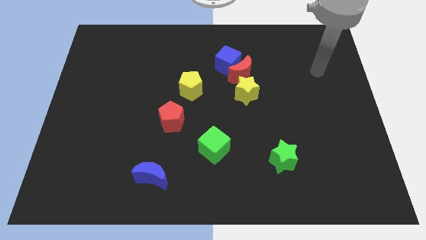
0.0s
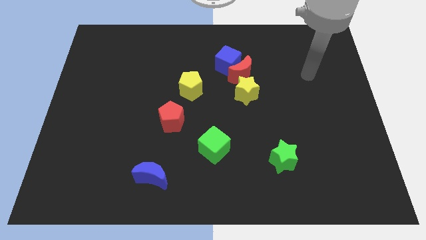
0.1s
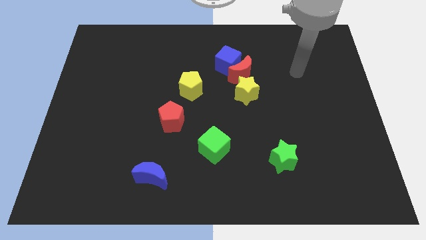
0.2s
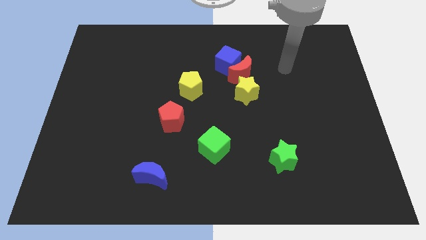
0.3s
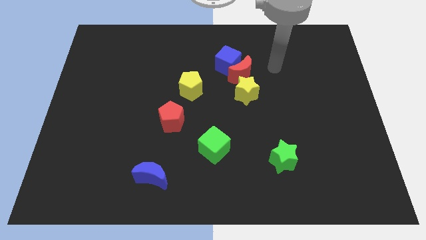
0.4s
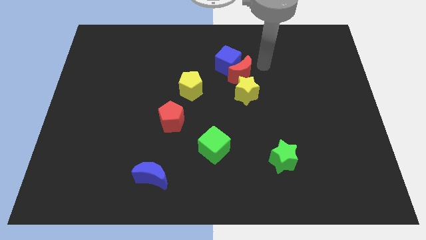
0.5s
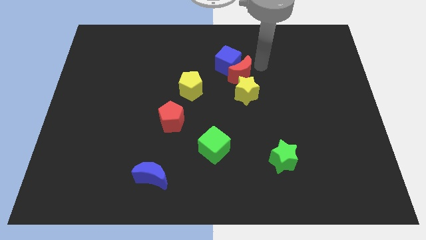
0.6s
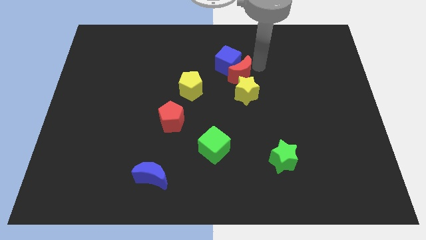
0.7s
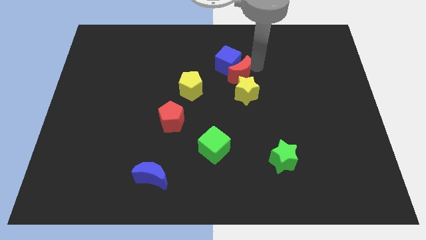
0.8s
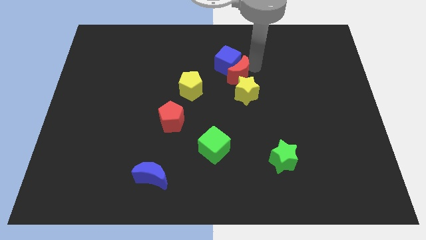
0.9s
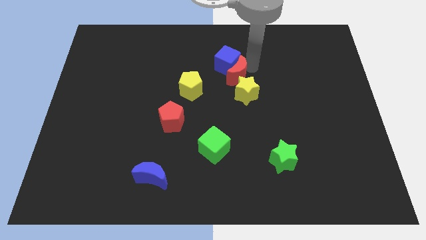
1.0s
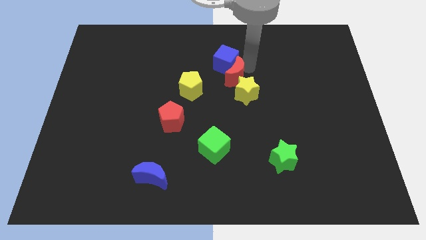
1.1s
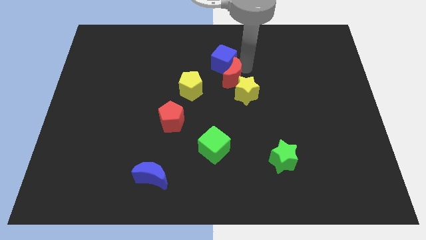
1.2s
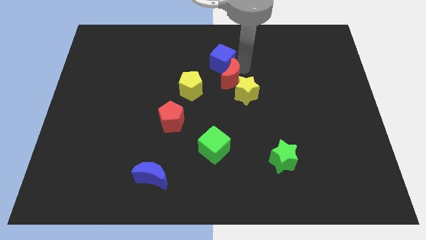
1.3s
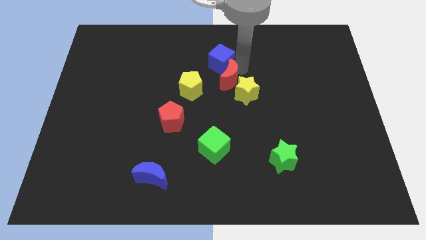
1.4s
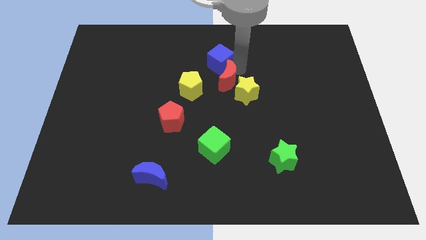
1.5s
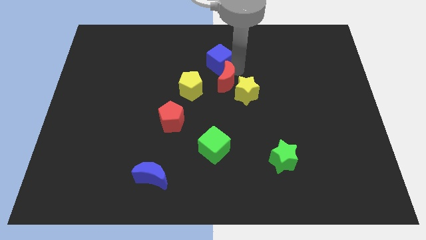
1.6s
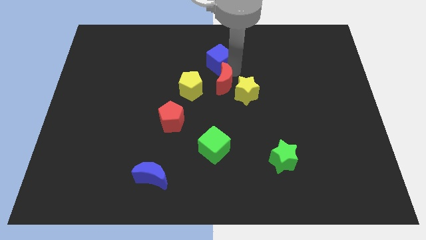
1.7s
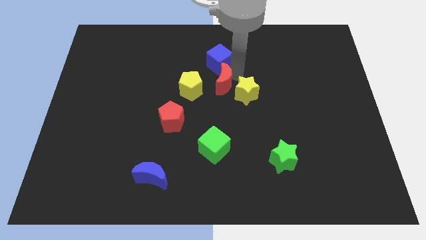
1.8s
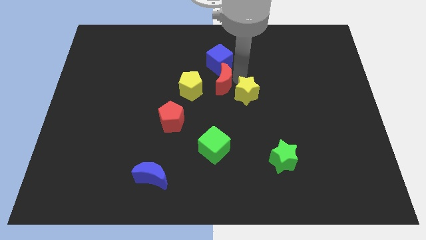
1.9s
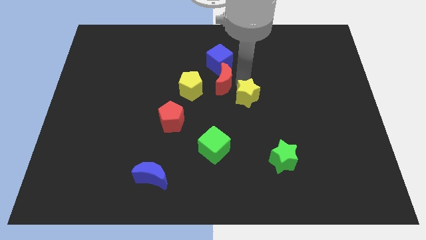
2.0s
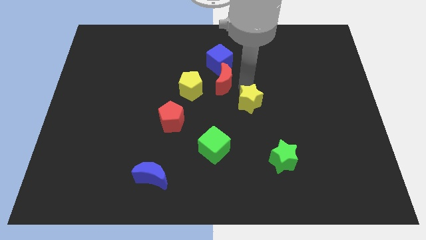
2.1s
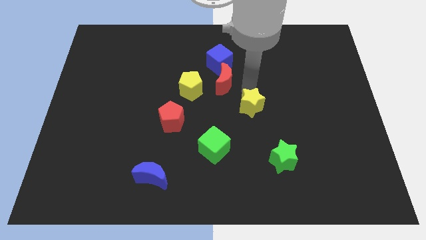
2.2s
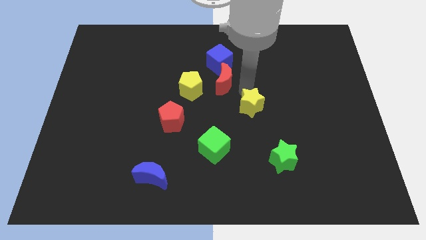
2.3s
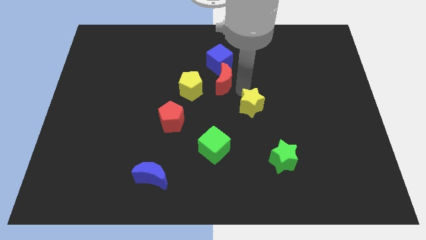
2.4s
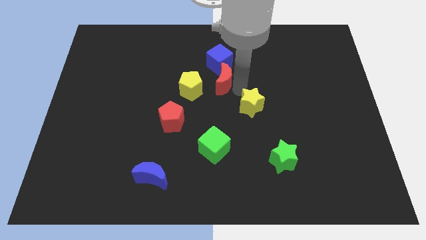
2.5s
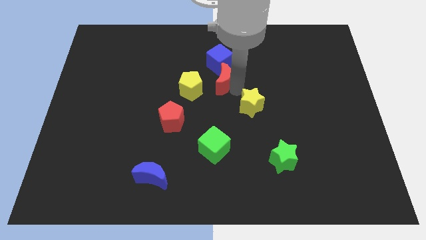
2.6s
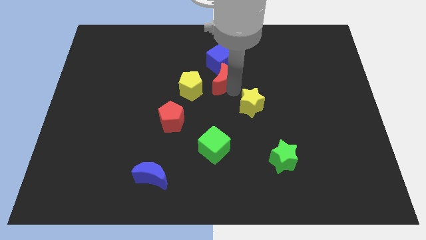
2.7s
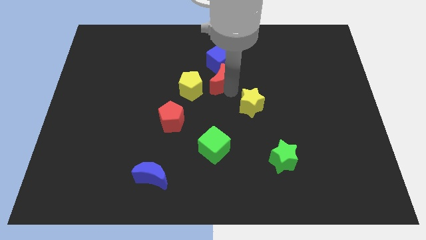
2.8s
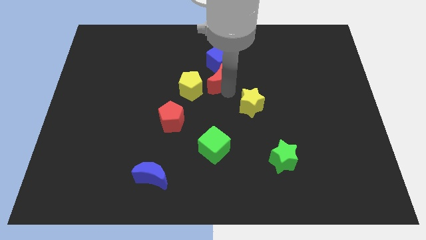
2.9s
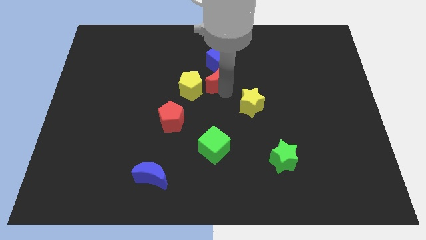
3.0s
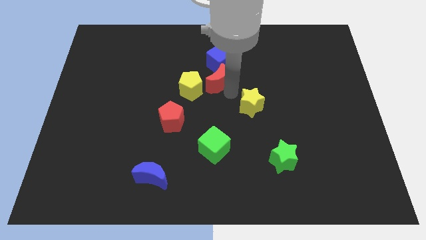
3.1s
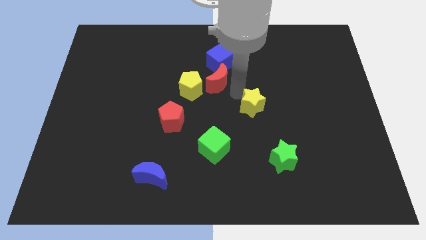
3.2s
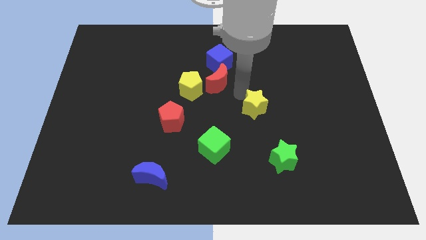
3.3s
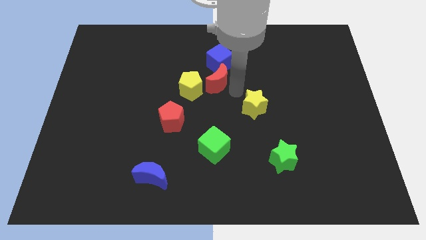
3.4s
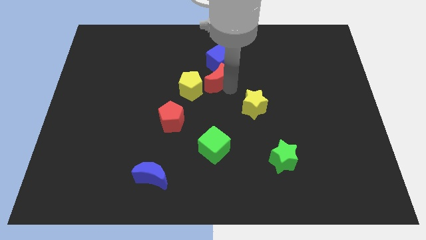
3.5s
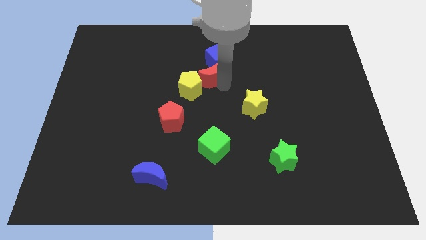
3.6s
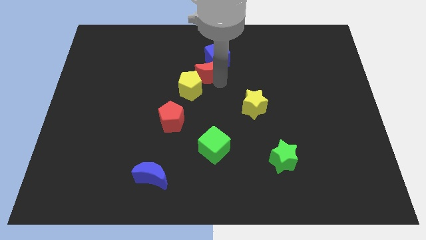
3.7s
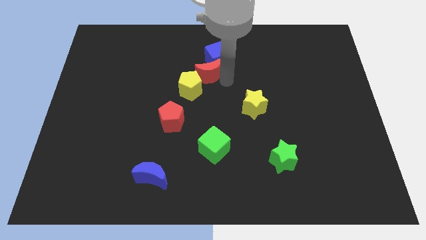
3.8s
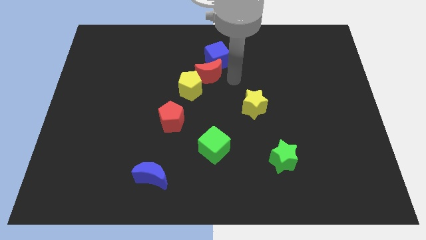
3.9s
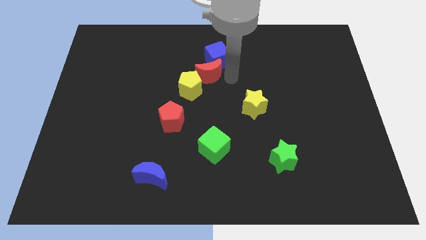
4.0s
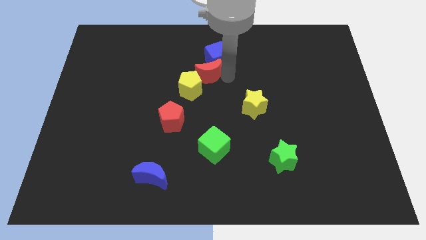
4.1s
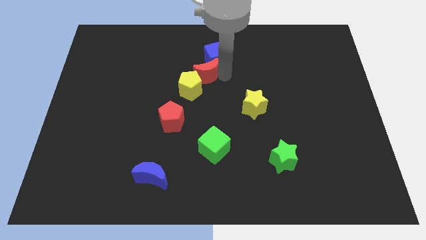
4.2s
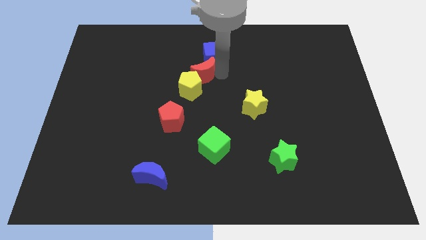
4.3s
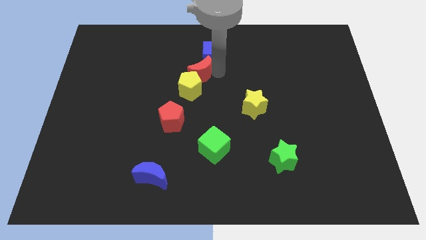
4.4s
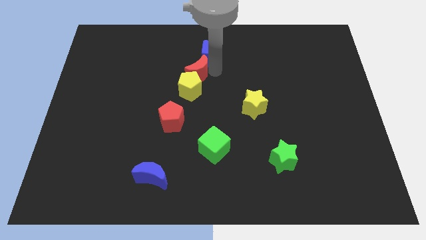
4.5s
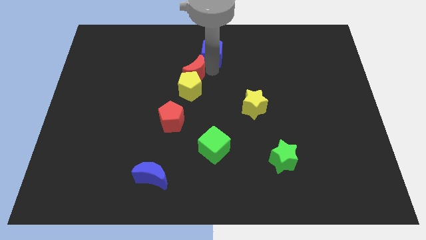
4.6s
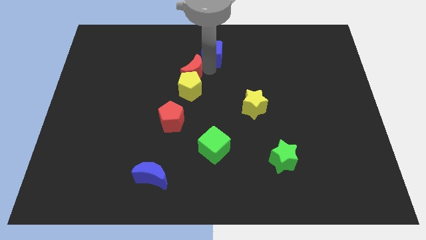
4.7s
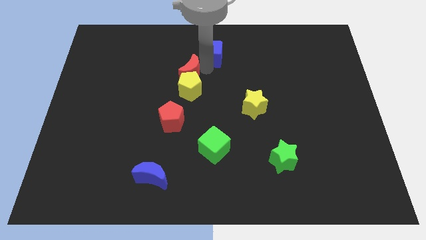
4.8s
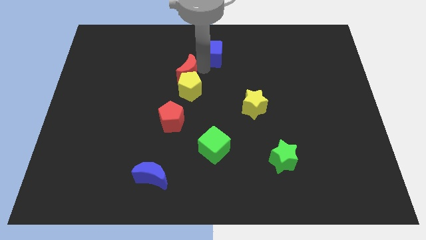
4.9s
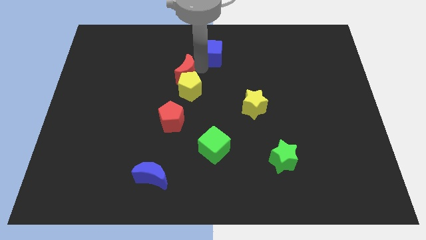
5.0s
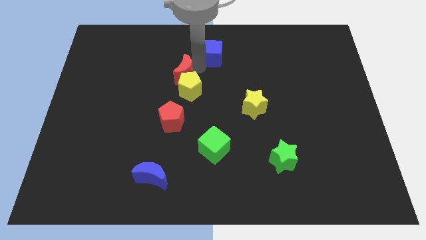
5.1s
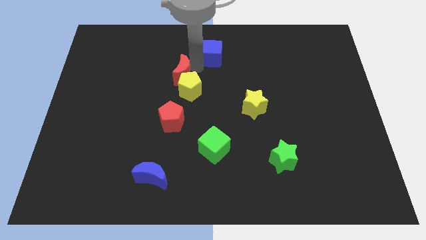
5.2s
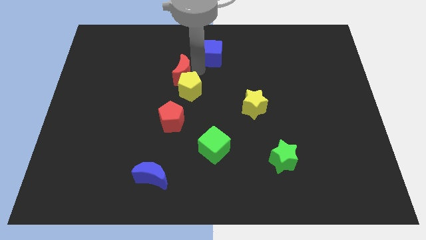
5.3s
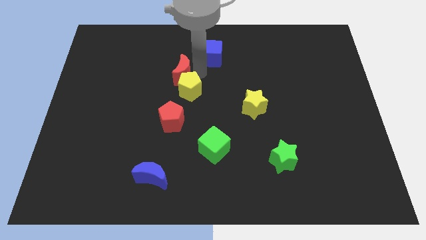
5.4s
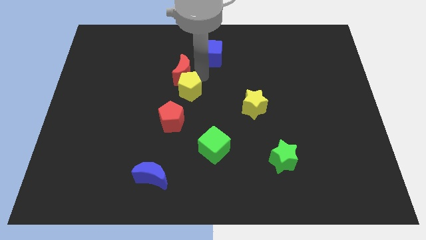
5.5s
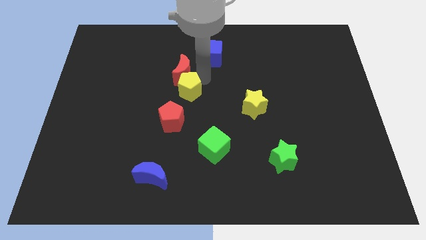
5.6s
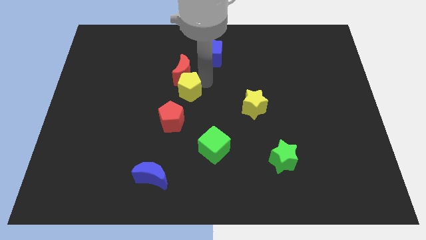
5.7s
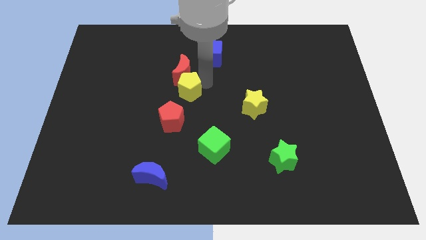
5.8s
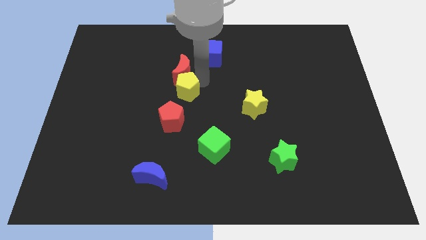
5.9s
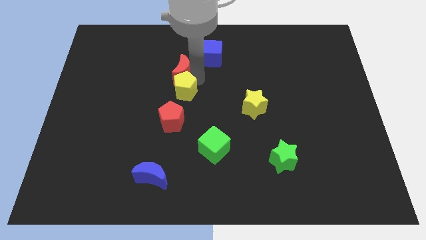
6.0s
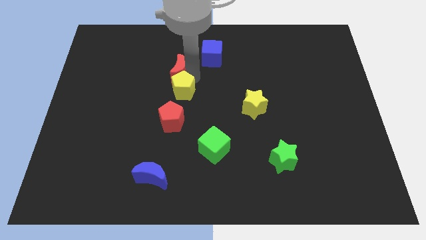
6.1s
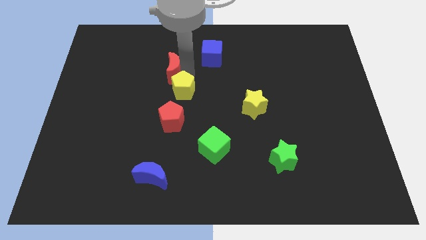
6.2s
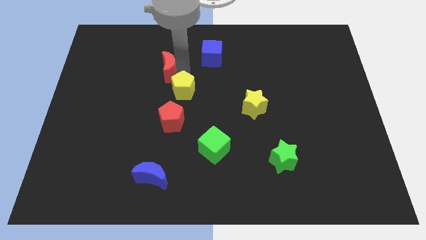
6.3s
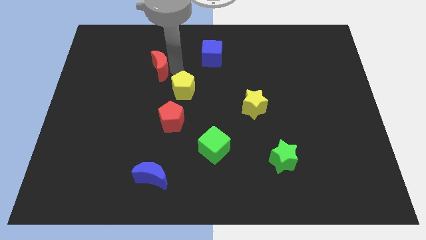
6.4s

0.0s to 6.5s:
slide the red moon to the left

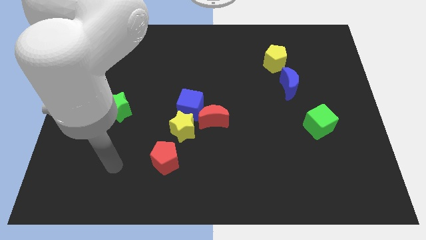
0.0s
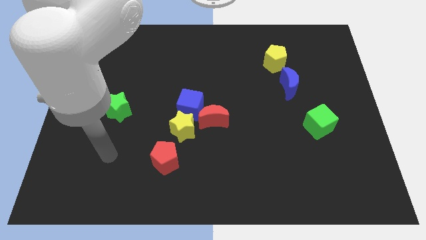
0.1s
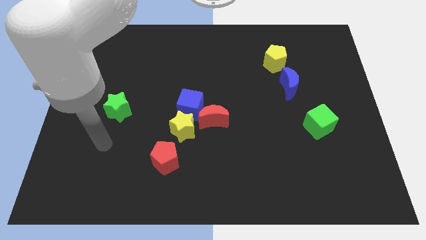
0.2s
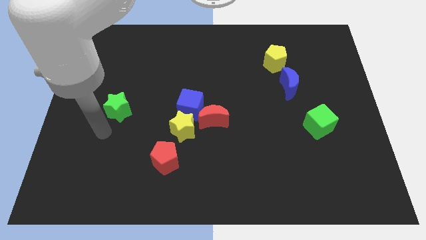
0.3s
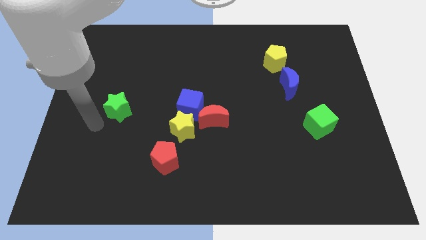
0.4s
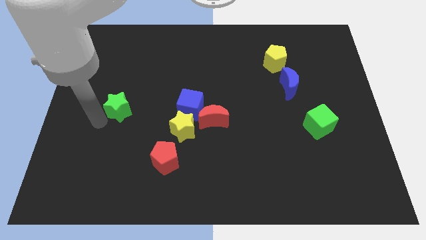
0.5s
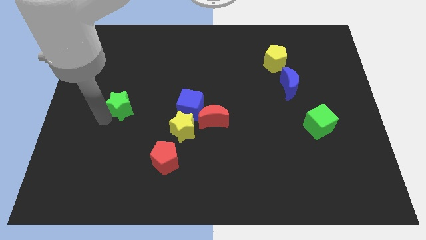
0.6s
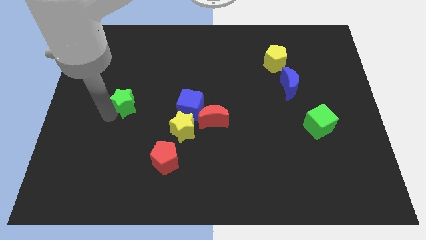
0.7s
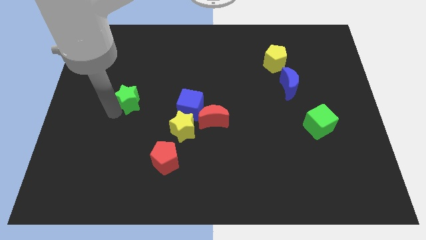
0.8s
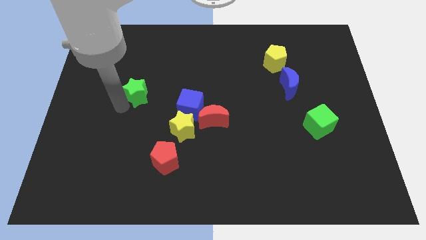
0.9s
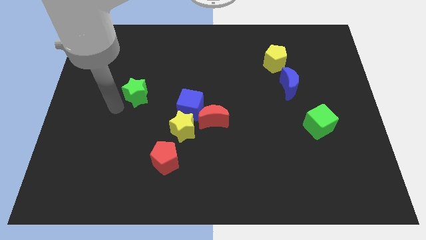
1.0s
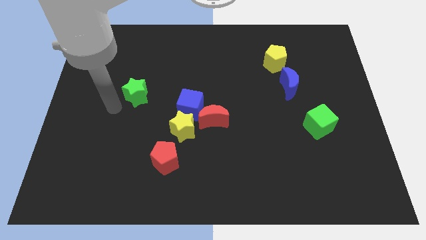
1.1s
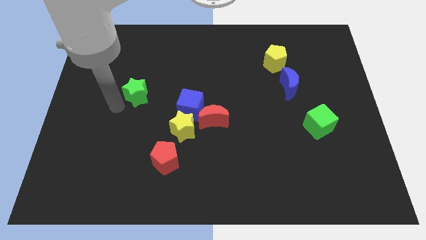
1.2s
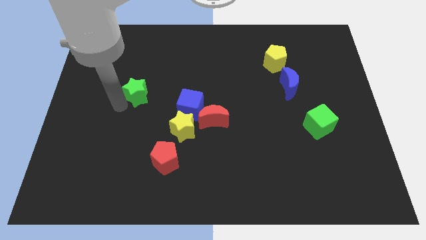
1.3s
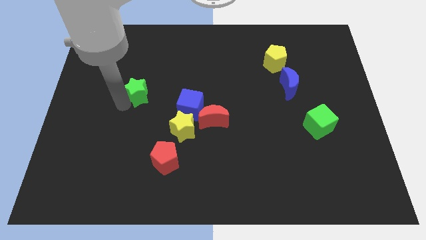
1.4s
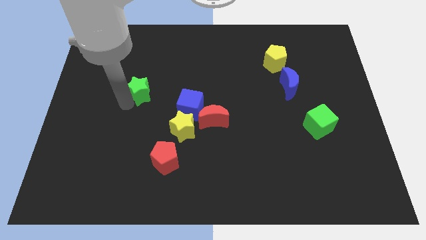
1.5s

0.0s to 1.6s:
slightly slide the green star up and then right

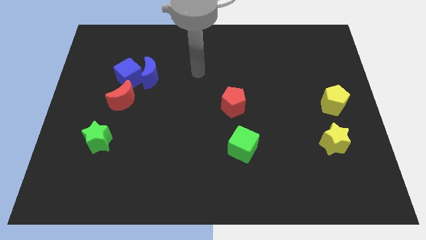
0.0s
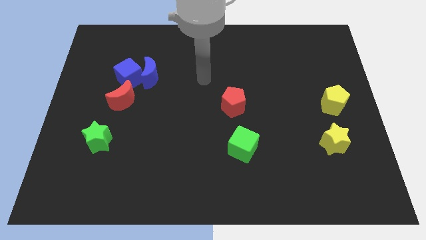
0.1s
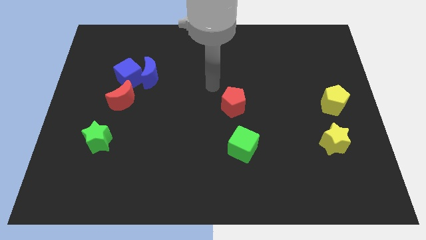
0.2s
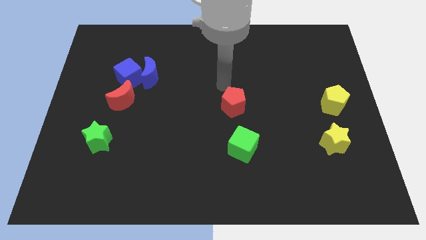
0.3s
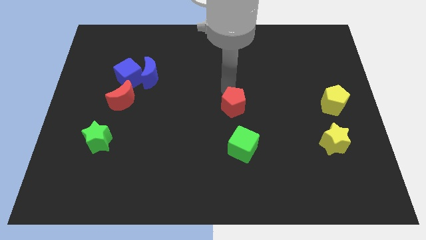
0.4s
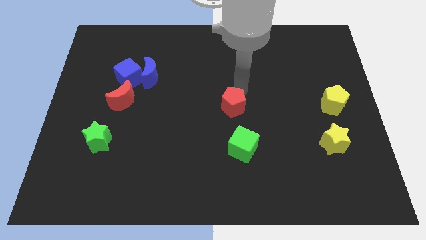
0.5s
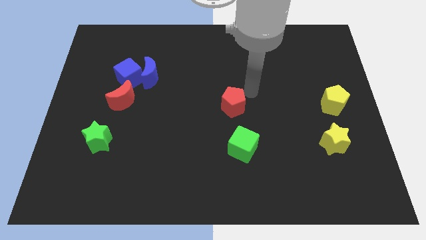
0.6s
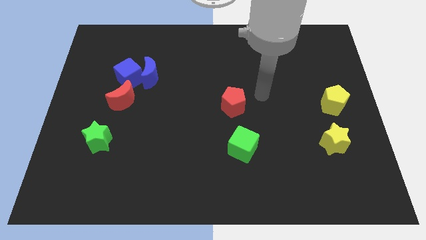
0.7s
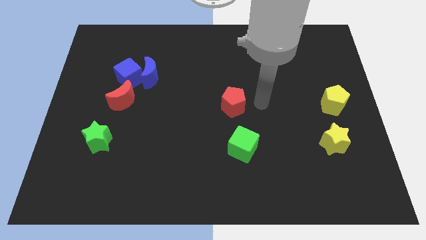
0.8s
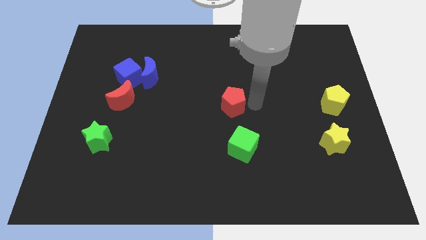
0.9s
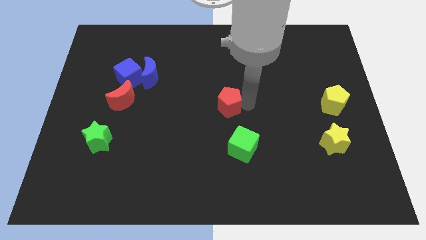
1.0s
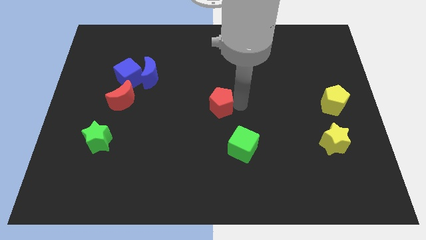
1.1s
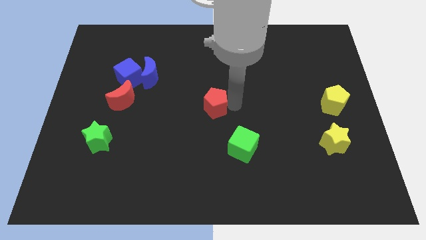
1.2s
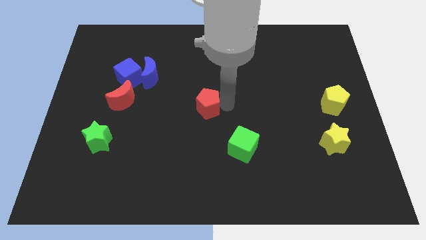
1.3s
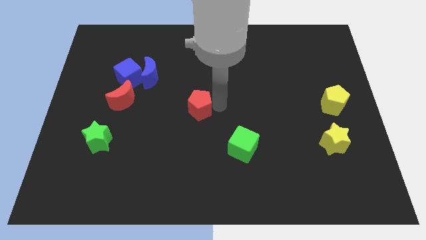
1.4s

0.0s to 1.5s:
slightly slide the red pentagon left
